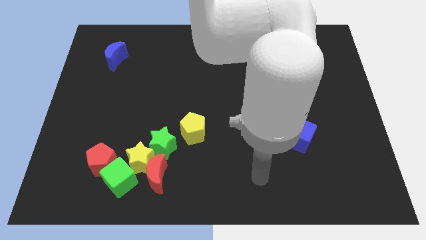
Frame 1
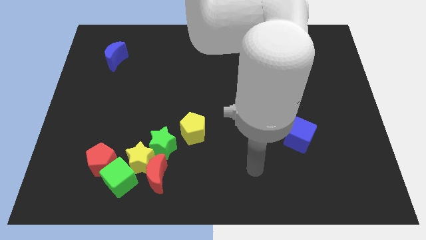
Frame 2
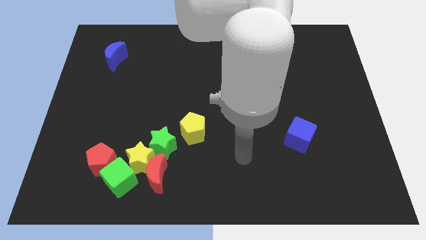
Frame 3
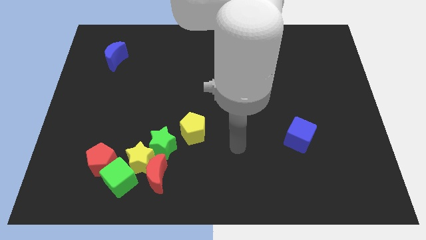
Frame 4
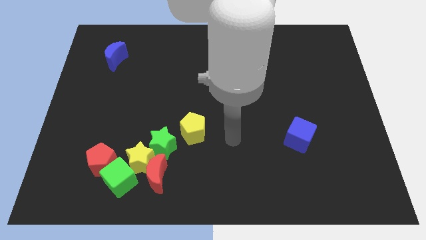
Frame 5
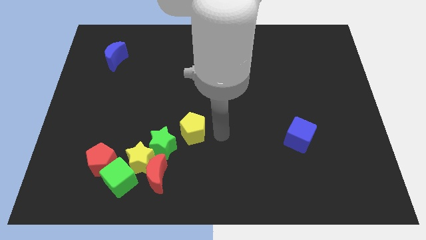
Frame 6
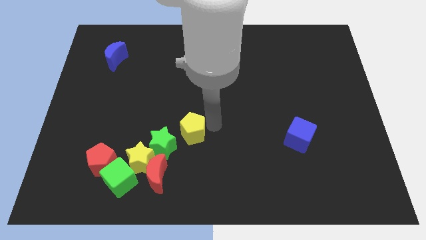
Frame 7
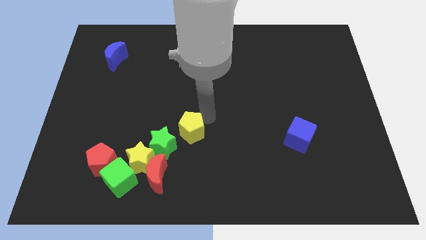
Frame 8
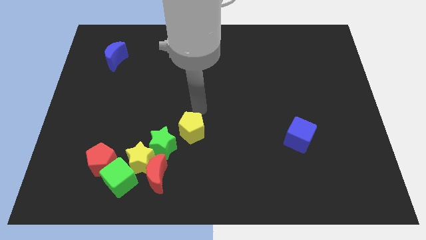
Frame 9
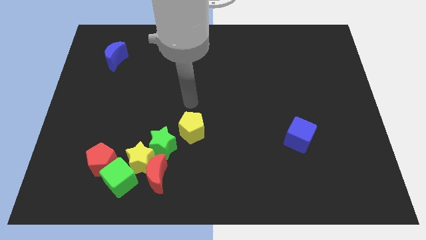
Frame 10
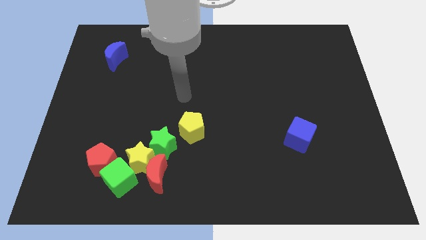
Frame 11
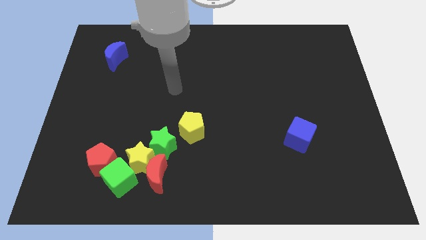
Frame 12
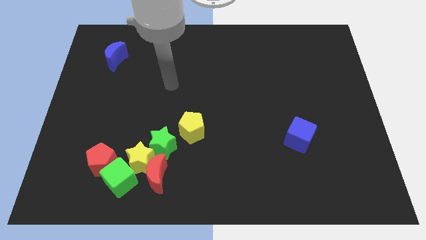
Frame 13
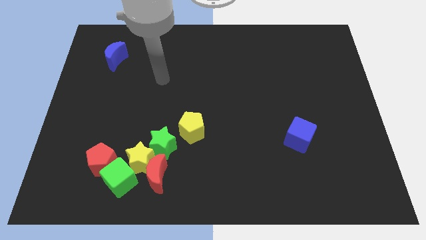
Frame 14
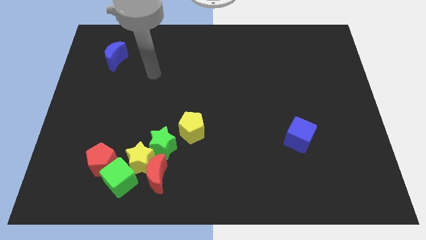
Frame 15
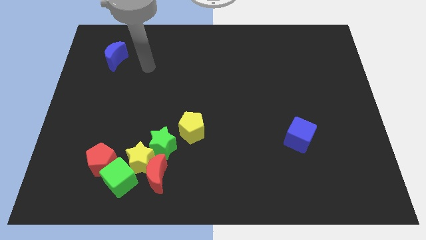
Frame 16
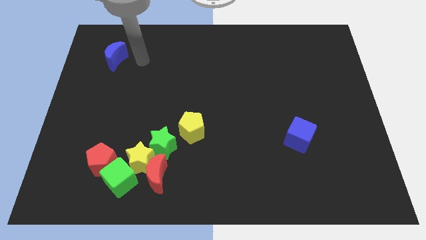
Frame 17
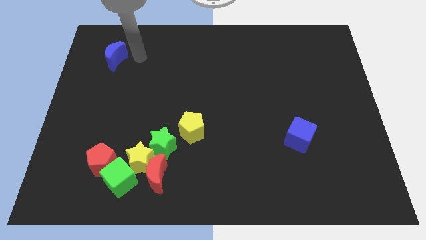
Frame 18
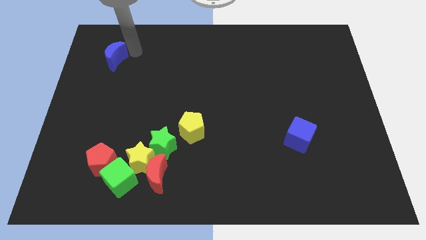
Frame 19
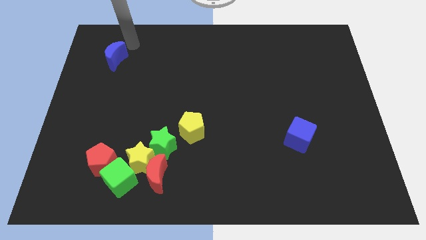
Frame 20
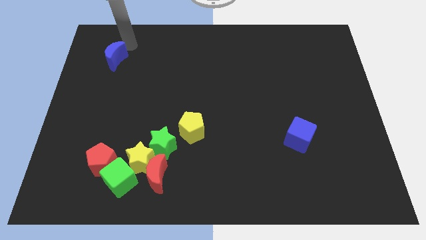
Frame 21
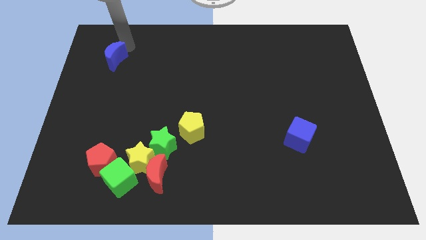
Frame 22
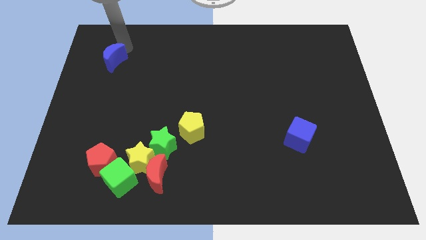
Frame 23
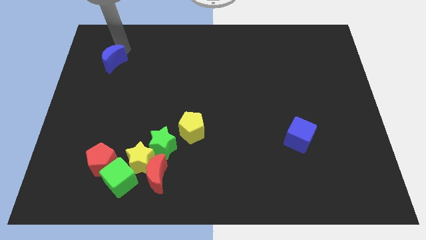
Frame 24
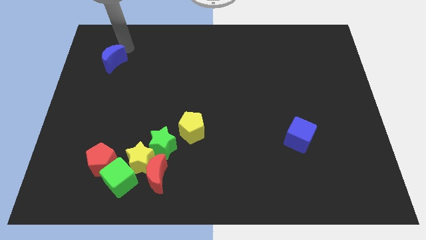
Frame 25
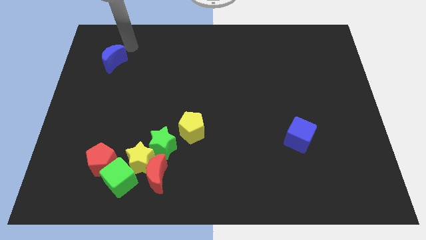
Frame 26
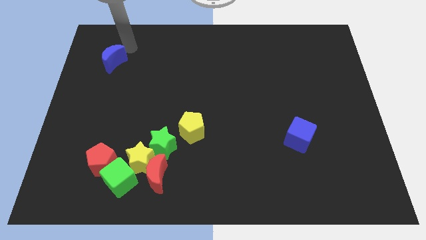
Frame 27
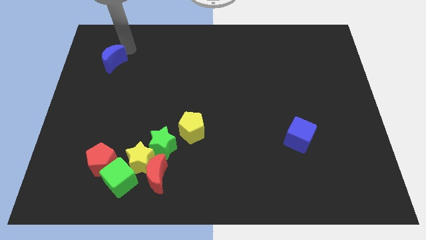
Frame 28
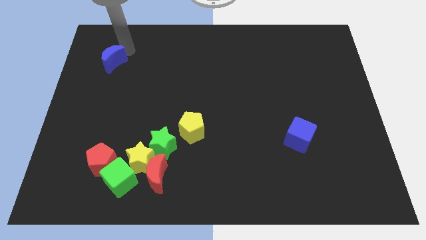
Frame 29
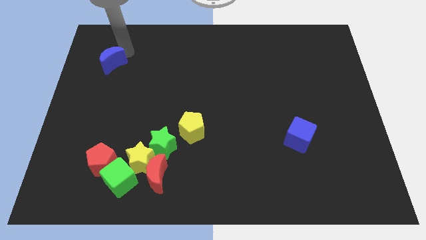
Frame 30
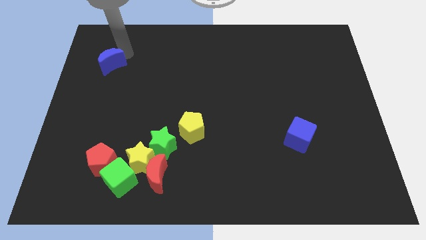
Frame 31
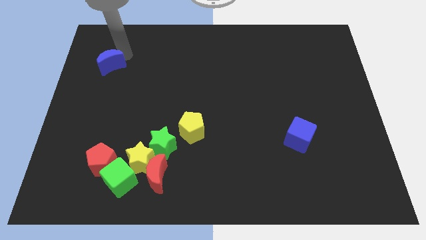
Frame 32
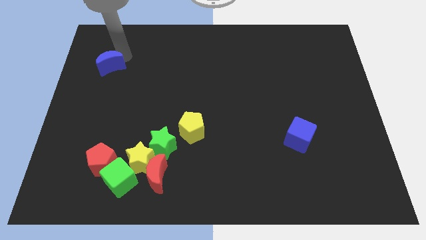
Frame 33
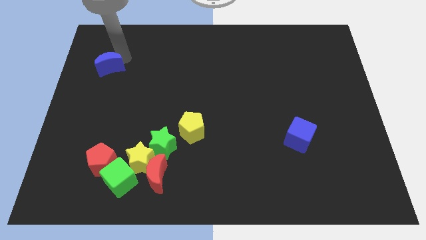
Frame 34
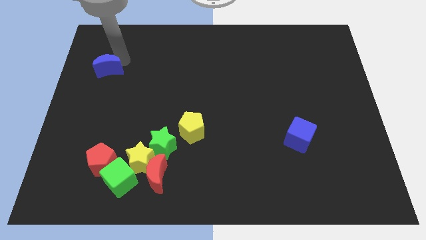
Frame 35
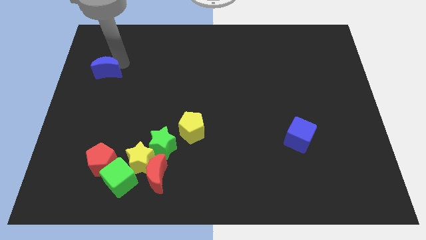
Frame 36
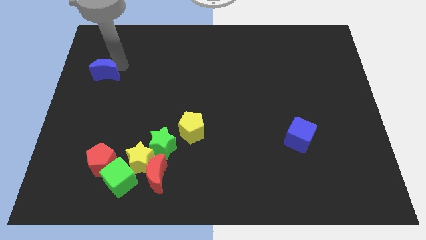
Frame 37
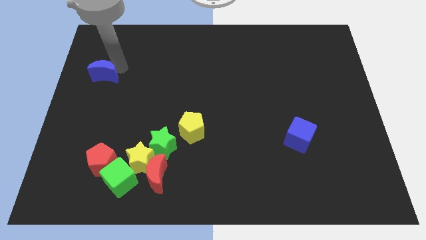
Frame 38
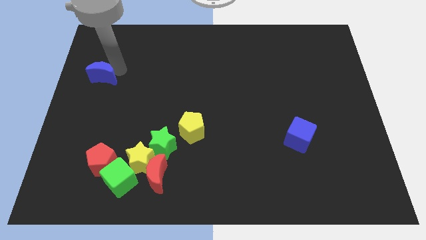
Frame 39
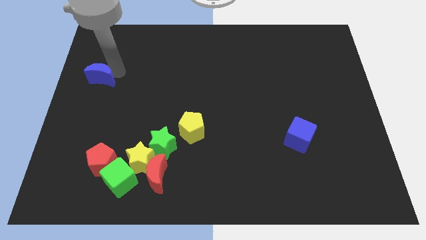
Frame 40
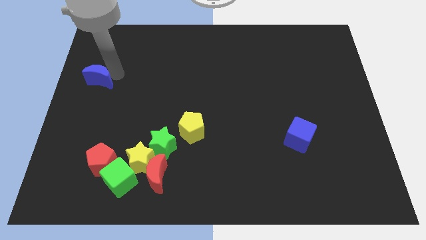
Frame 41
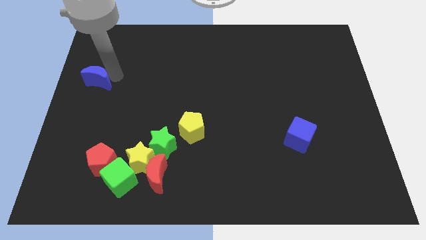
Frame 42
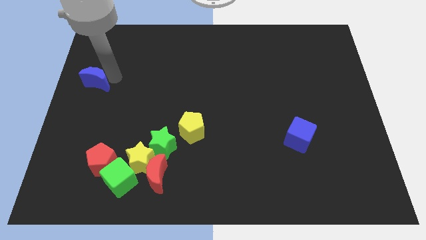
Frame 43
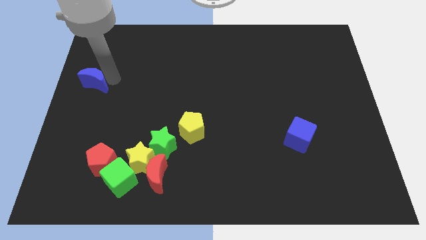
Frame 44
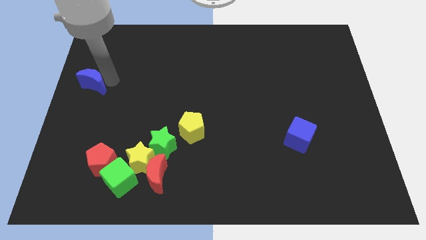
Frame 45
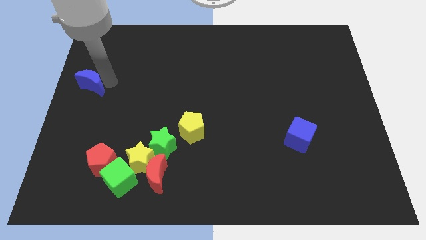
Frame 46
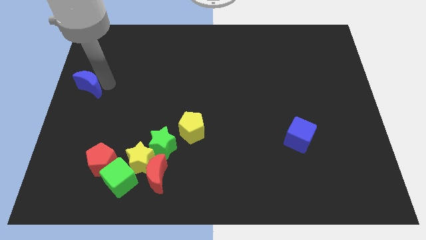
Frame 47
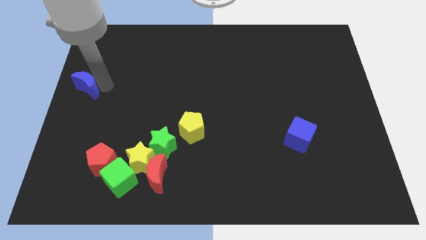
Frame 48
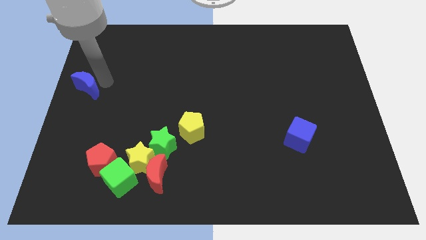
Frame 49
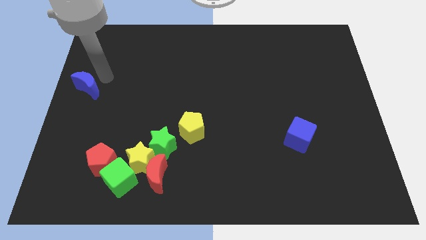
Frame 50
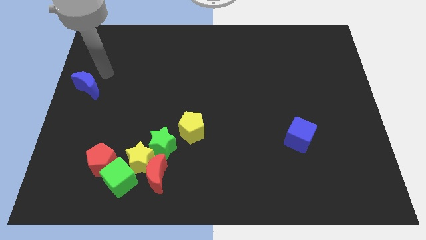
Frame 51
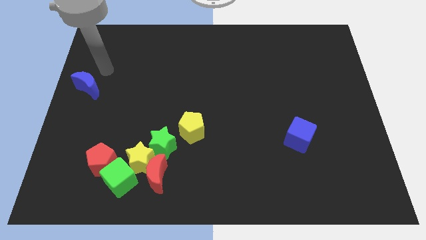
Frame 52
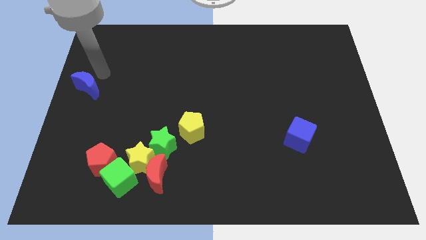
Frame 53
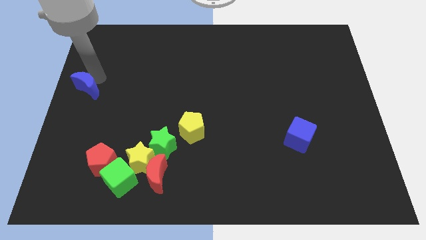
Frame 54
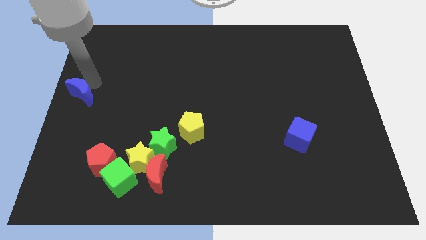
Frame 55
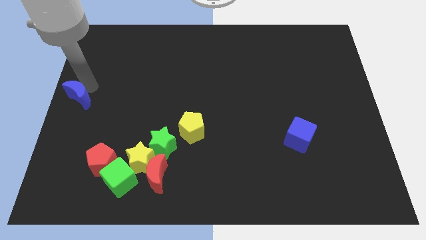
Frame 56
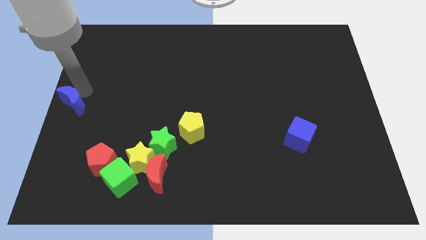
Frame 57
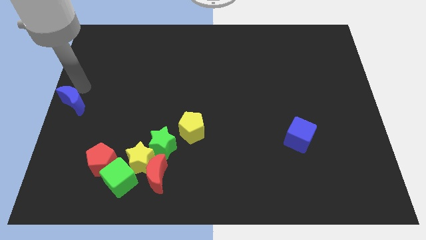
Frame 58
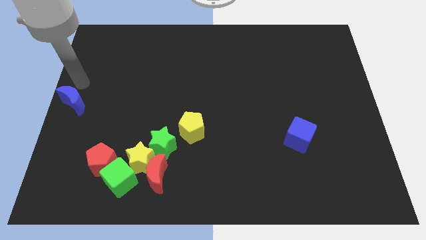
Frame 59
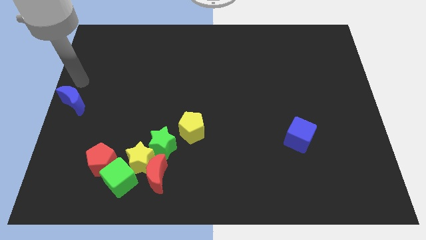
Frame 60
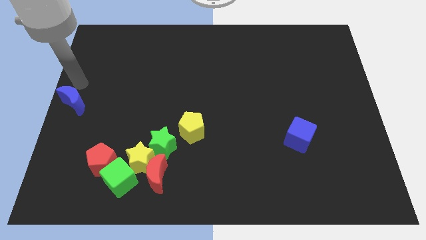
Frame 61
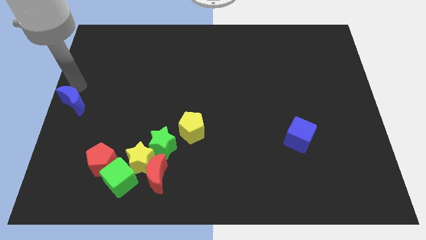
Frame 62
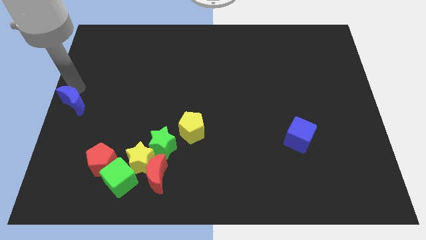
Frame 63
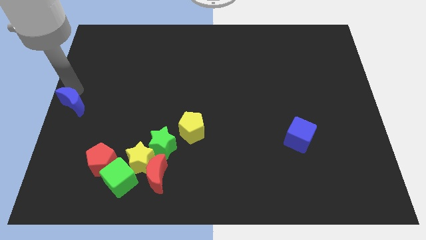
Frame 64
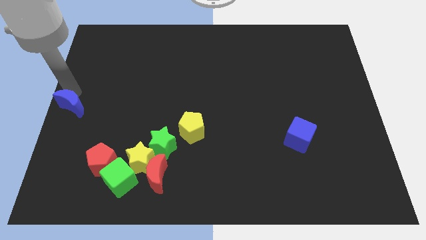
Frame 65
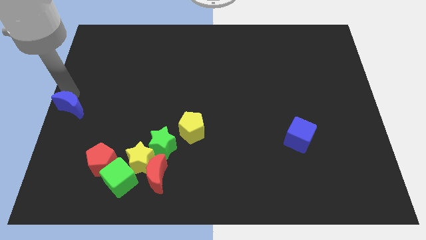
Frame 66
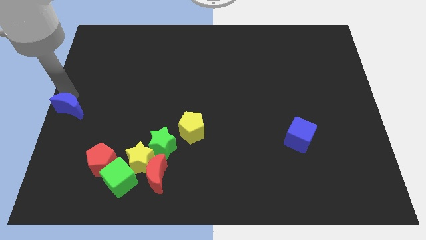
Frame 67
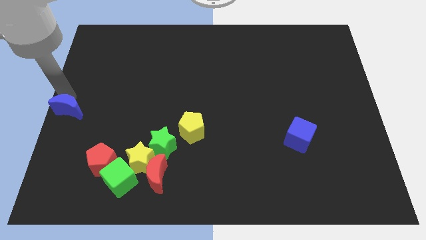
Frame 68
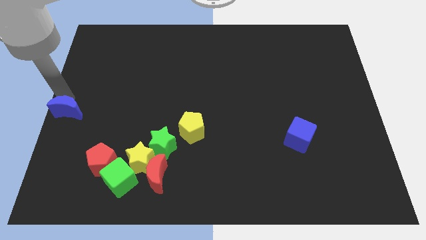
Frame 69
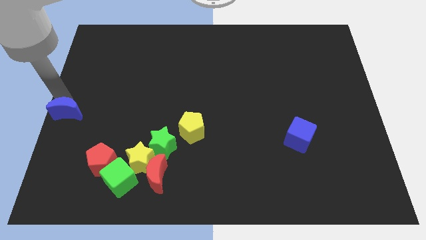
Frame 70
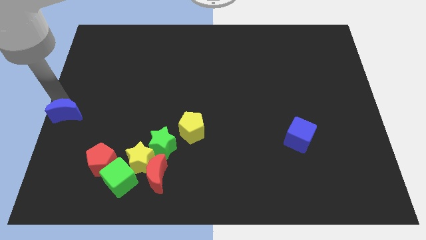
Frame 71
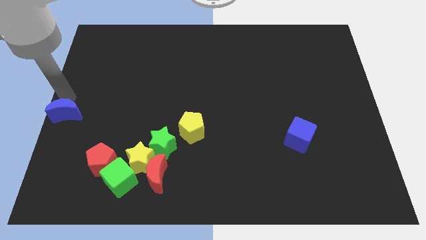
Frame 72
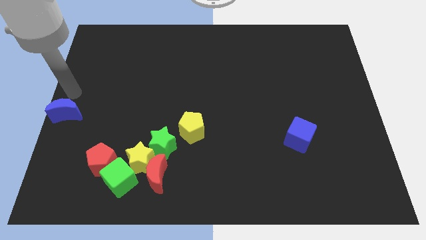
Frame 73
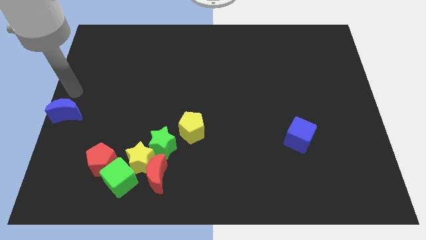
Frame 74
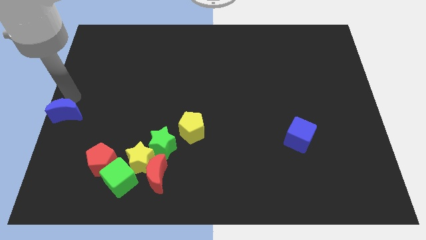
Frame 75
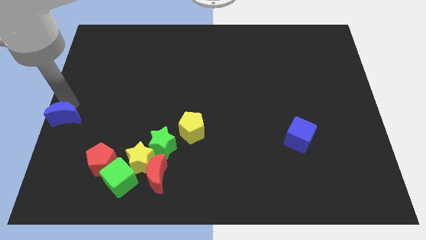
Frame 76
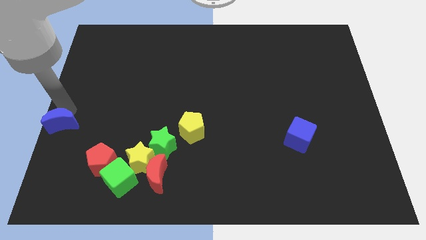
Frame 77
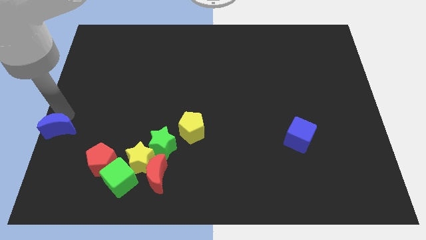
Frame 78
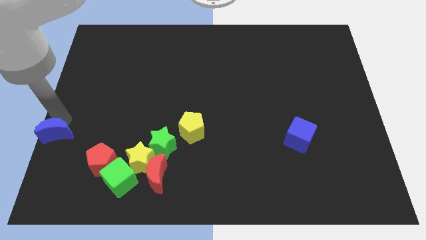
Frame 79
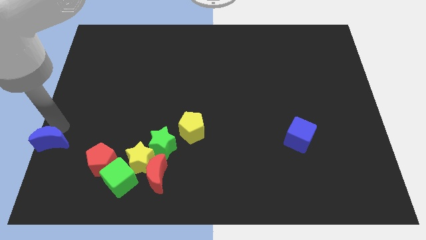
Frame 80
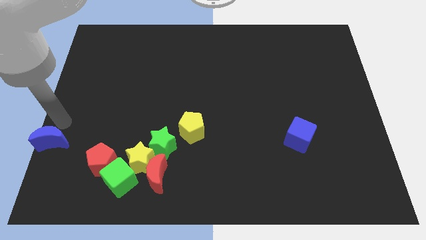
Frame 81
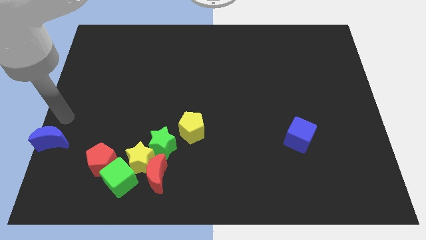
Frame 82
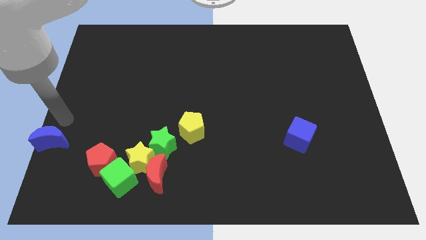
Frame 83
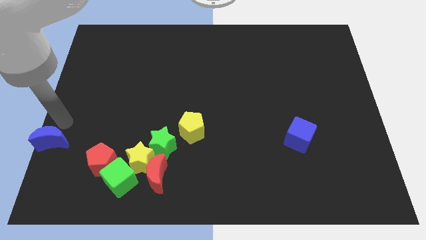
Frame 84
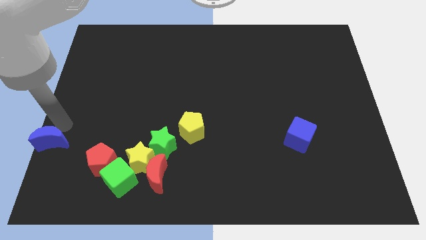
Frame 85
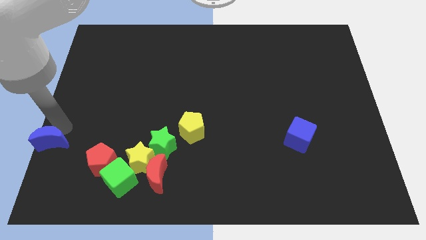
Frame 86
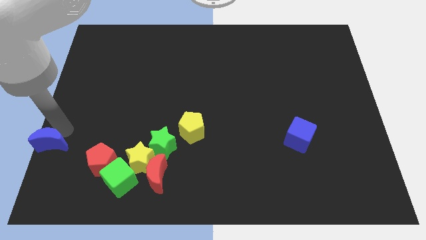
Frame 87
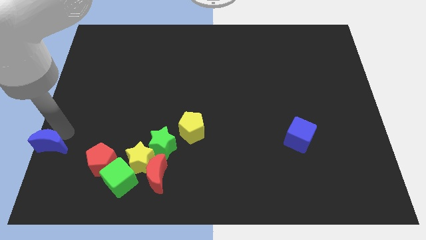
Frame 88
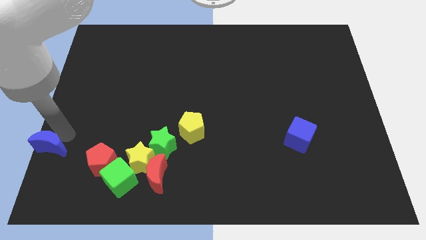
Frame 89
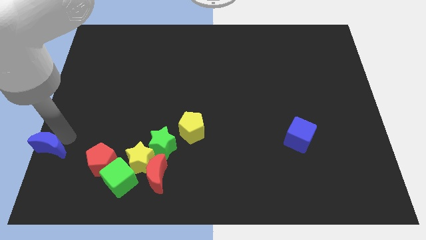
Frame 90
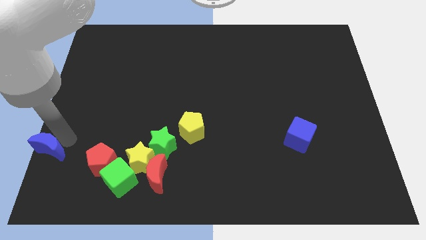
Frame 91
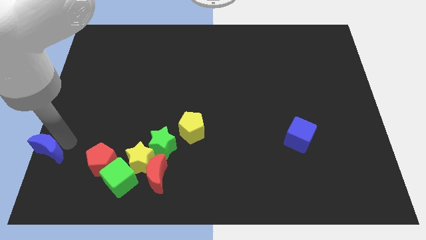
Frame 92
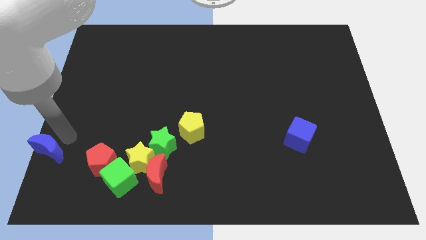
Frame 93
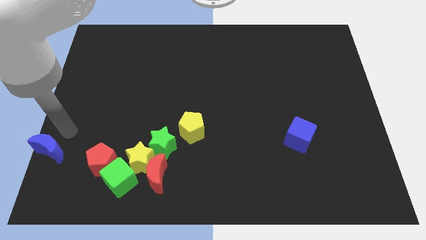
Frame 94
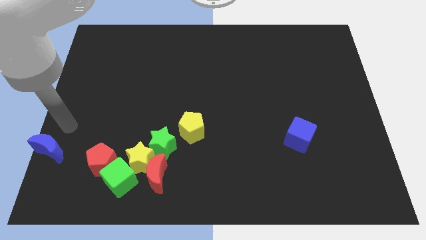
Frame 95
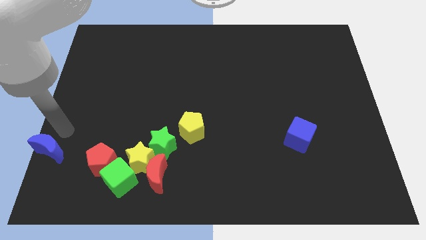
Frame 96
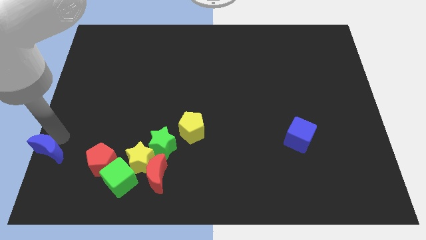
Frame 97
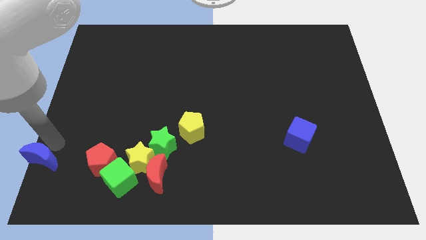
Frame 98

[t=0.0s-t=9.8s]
slide the blue moon to the bottom left corner
